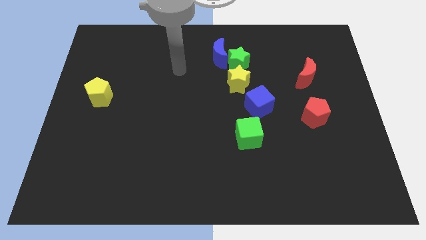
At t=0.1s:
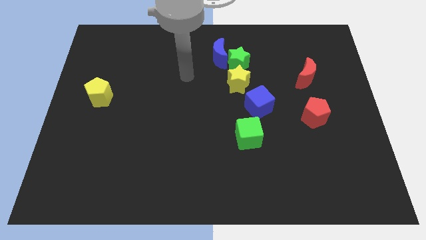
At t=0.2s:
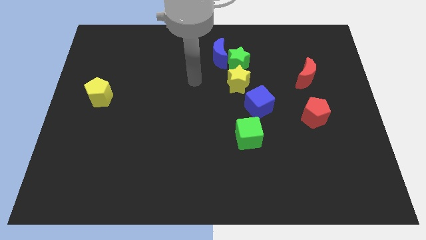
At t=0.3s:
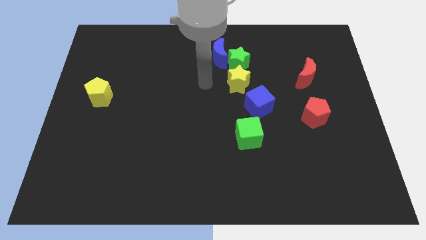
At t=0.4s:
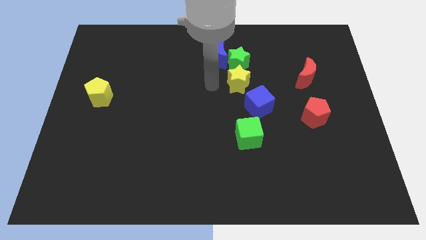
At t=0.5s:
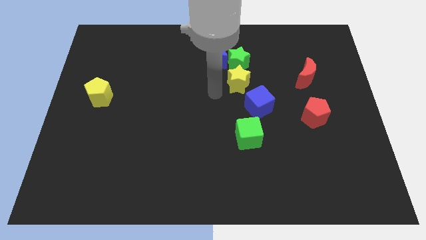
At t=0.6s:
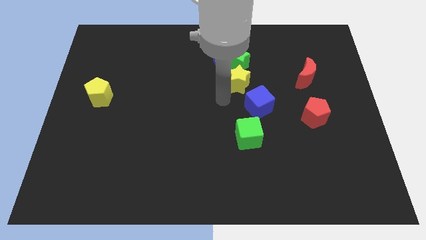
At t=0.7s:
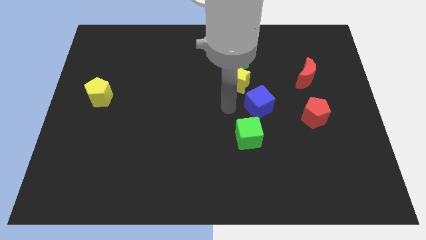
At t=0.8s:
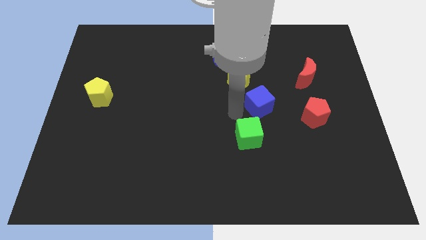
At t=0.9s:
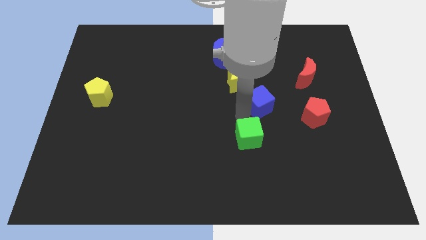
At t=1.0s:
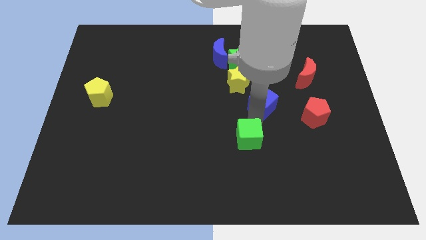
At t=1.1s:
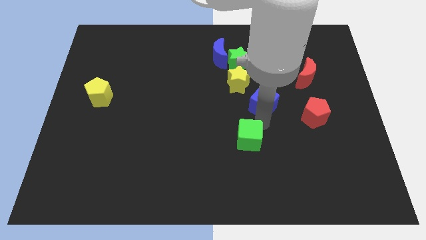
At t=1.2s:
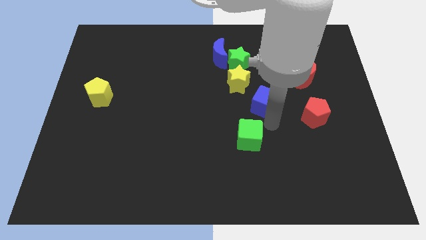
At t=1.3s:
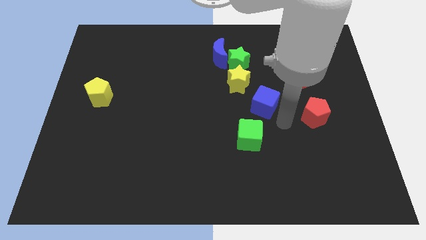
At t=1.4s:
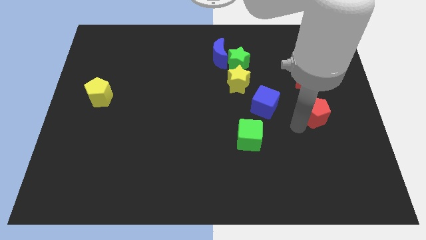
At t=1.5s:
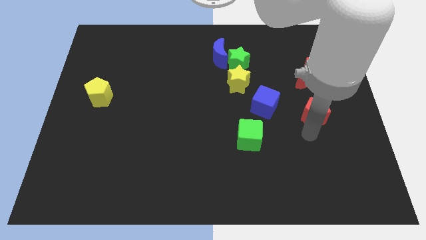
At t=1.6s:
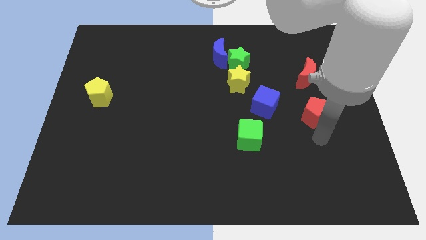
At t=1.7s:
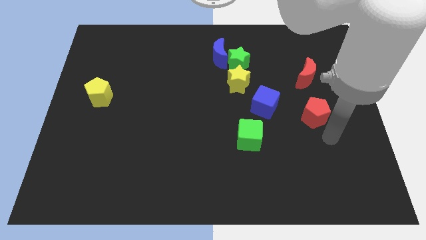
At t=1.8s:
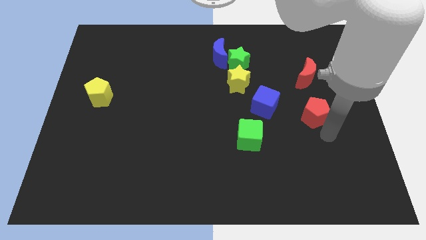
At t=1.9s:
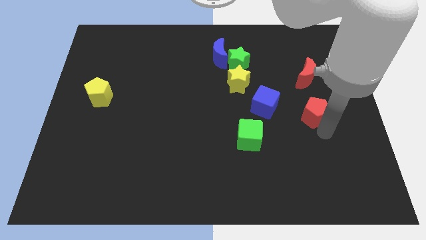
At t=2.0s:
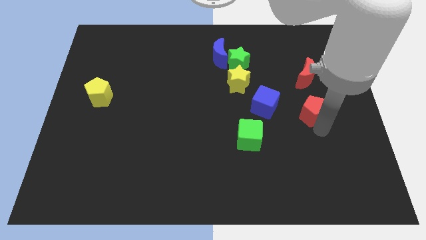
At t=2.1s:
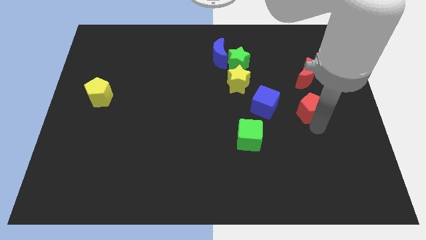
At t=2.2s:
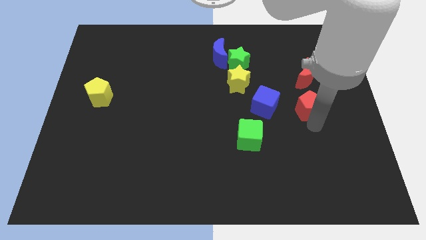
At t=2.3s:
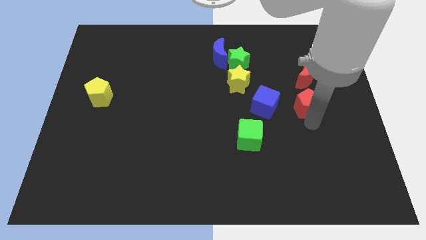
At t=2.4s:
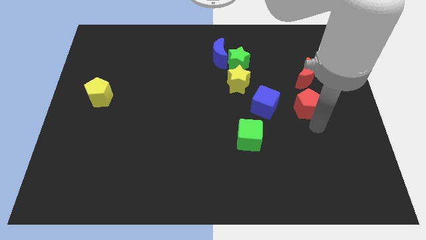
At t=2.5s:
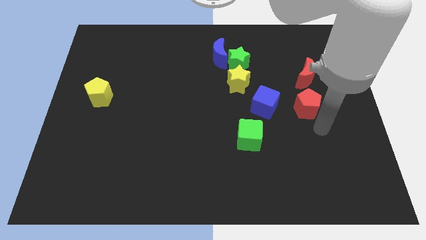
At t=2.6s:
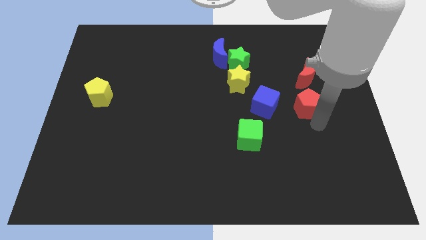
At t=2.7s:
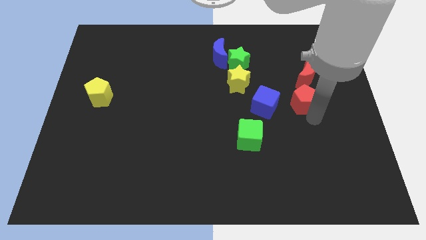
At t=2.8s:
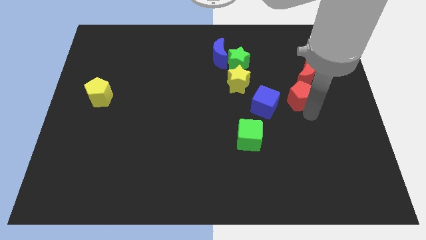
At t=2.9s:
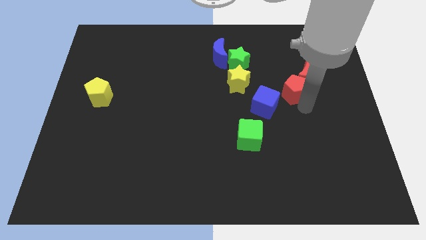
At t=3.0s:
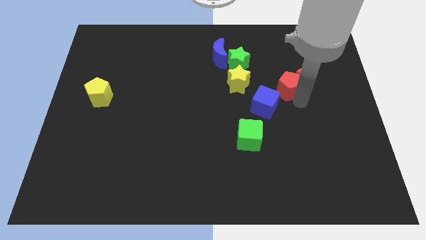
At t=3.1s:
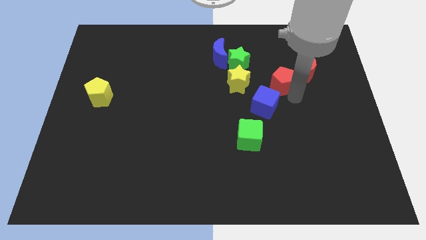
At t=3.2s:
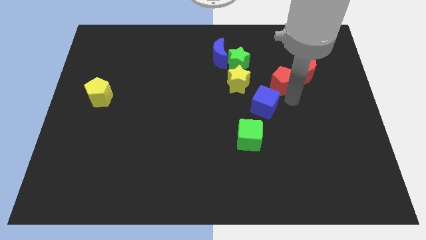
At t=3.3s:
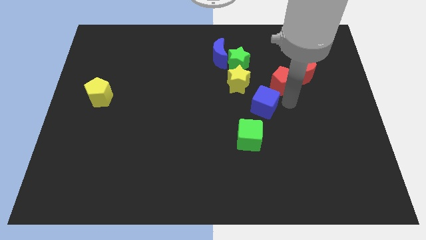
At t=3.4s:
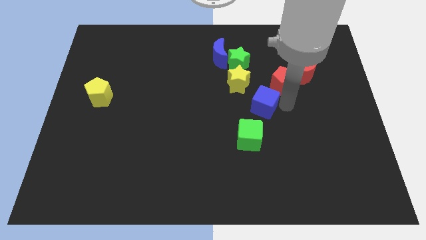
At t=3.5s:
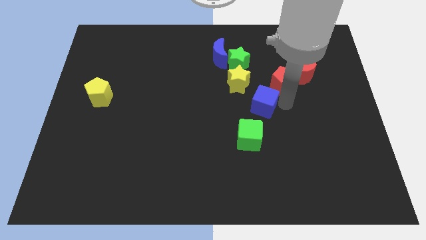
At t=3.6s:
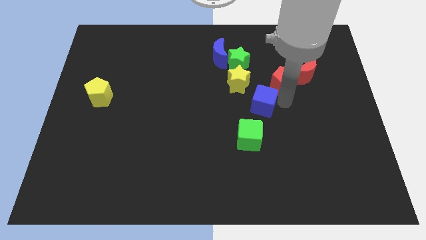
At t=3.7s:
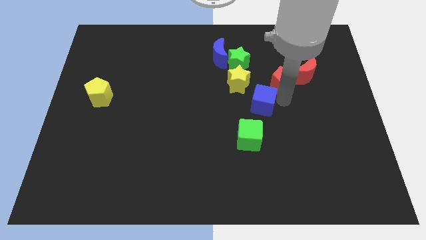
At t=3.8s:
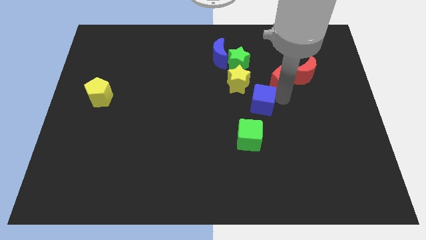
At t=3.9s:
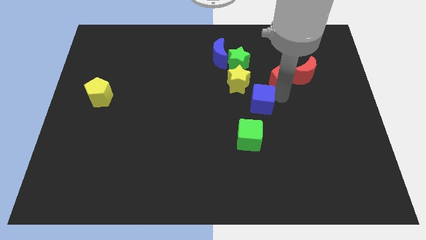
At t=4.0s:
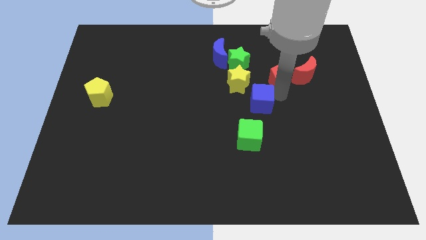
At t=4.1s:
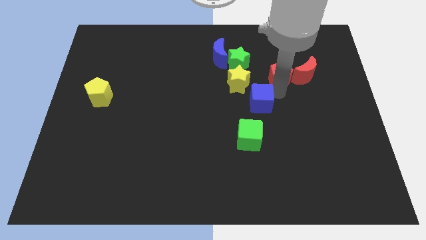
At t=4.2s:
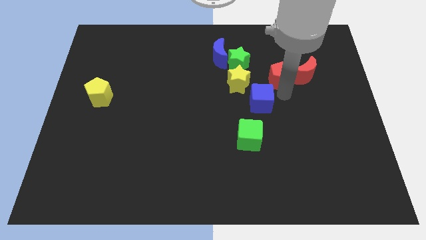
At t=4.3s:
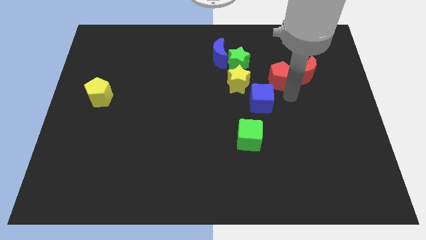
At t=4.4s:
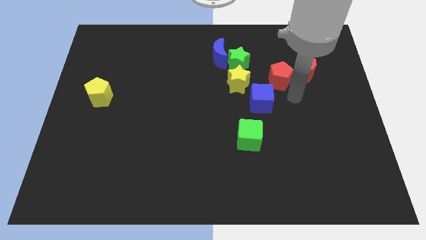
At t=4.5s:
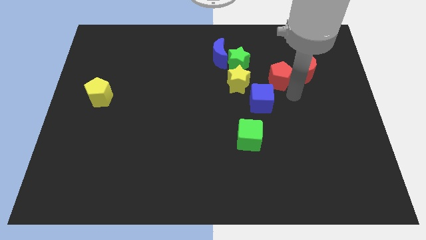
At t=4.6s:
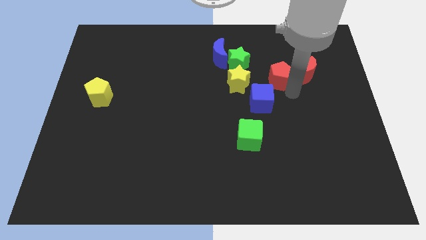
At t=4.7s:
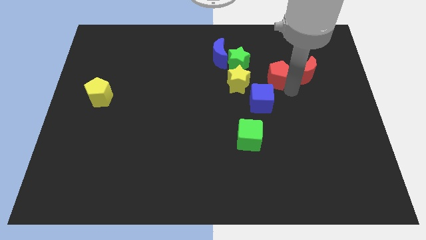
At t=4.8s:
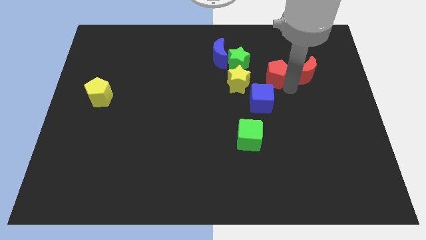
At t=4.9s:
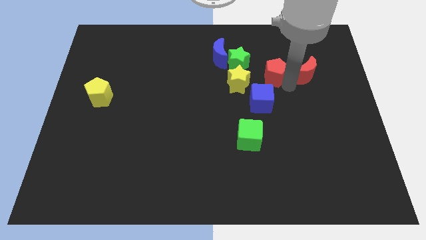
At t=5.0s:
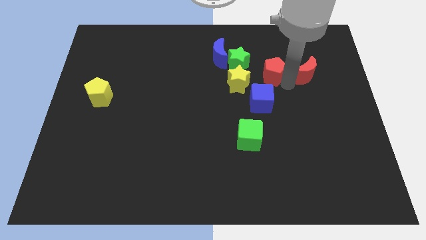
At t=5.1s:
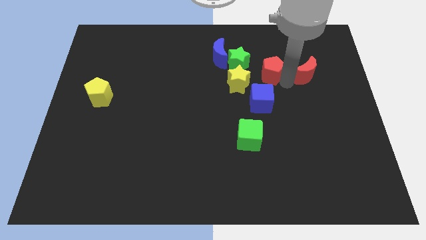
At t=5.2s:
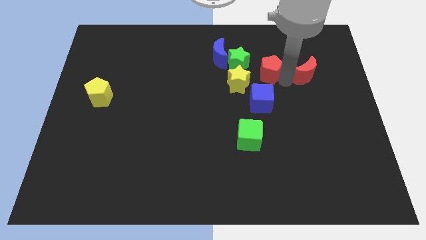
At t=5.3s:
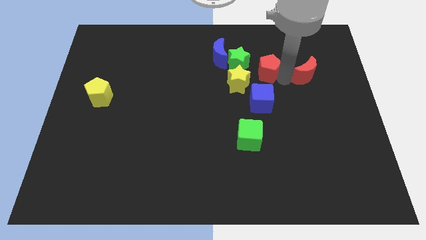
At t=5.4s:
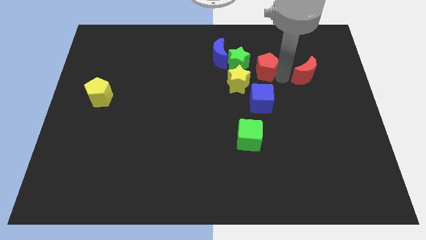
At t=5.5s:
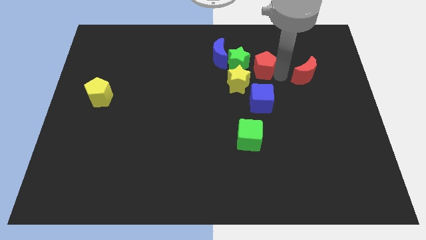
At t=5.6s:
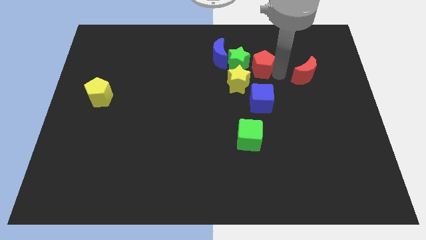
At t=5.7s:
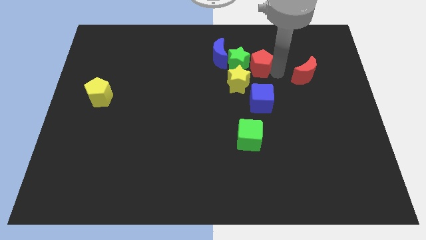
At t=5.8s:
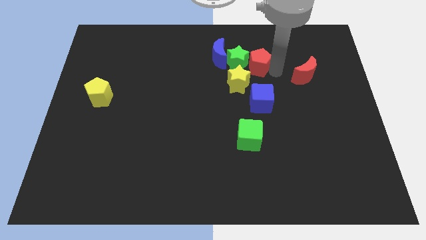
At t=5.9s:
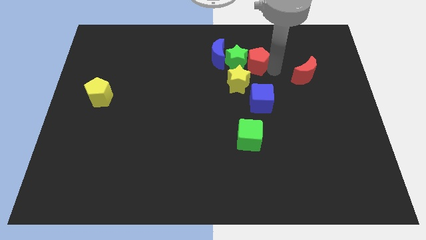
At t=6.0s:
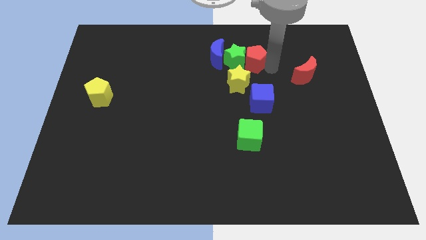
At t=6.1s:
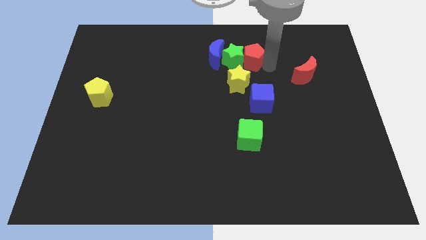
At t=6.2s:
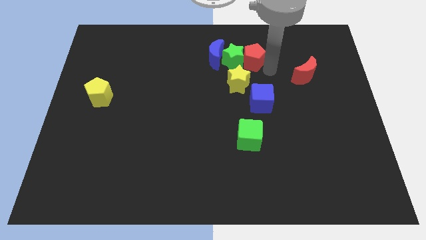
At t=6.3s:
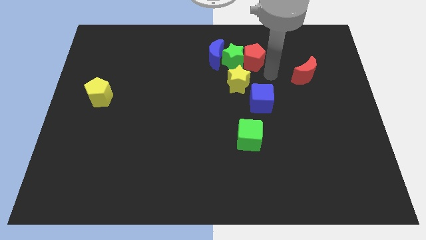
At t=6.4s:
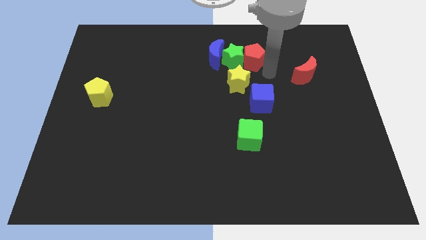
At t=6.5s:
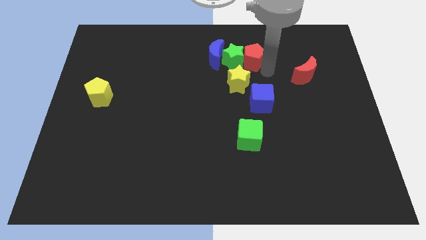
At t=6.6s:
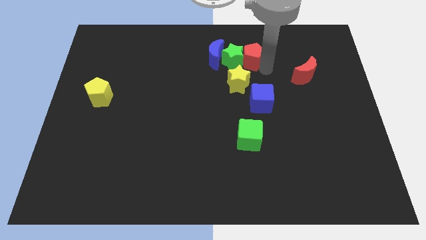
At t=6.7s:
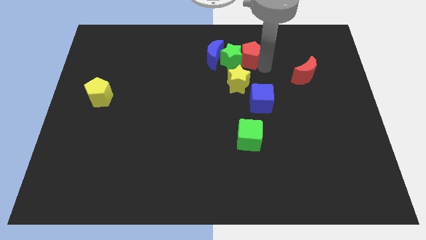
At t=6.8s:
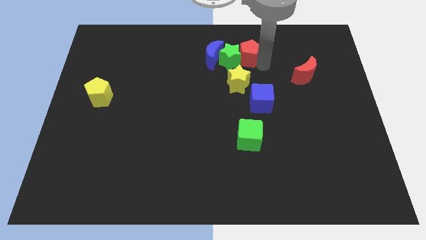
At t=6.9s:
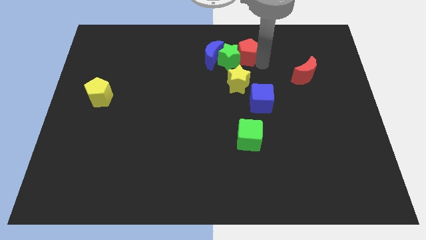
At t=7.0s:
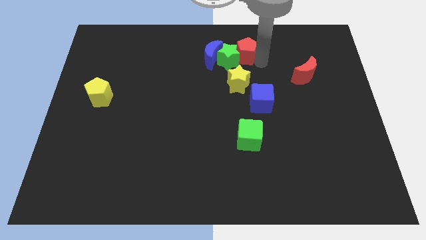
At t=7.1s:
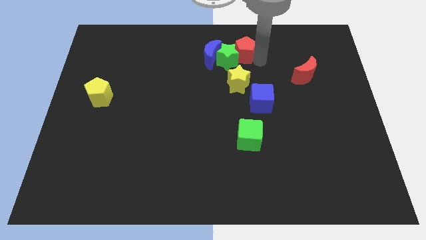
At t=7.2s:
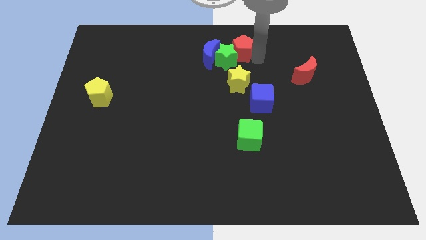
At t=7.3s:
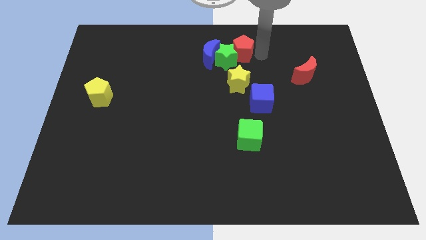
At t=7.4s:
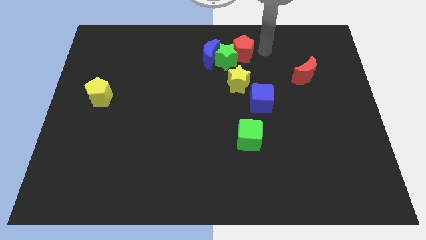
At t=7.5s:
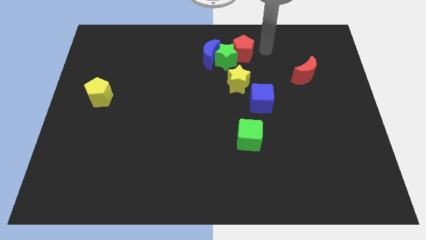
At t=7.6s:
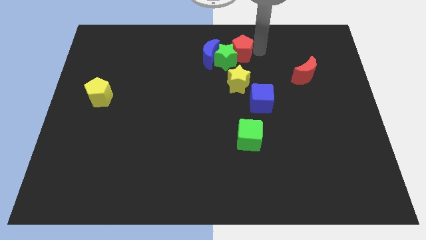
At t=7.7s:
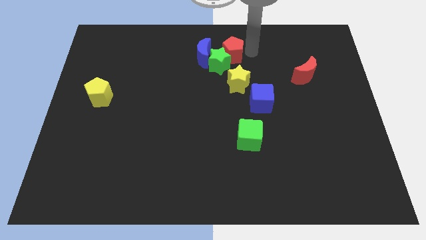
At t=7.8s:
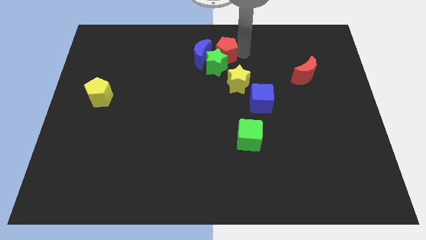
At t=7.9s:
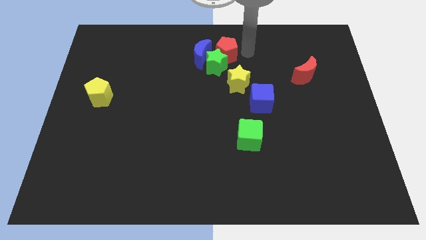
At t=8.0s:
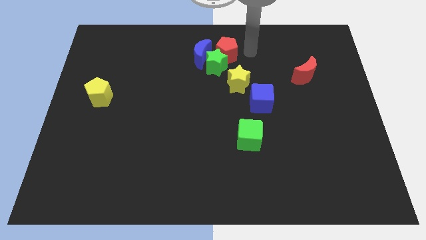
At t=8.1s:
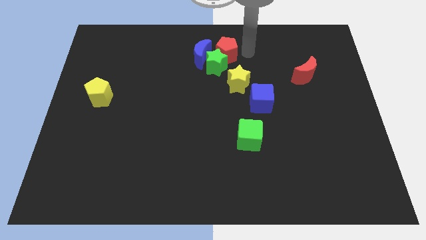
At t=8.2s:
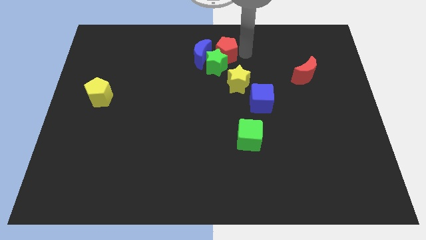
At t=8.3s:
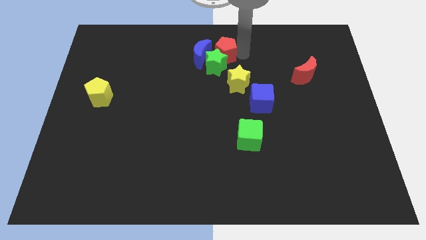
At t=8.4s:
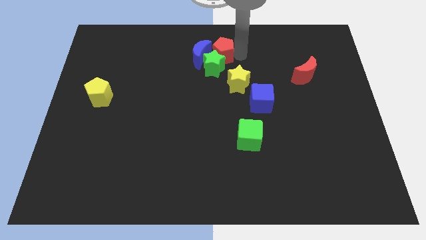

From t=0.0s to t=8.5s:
put the red pentagon towards the blue moon
